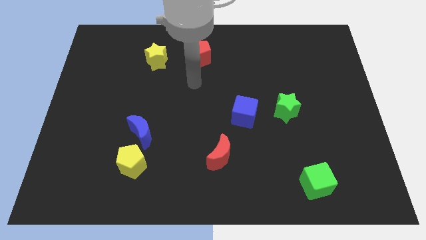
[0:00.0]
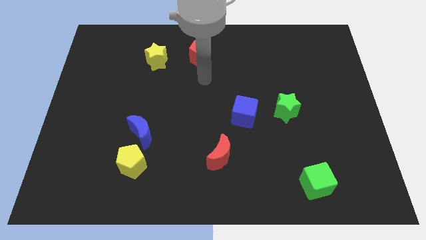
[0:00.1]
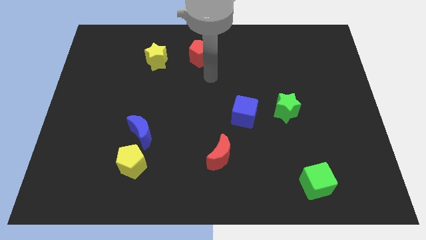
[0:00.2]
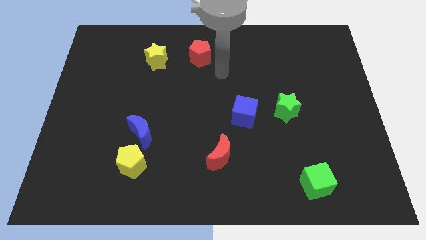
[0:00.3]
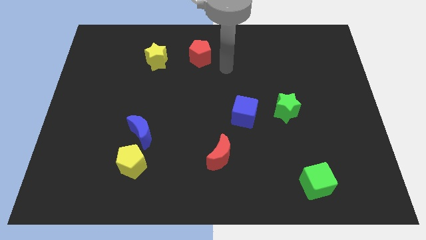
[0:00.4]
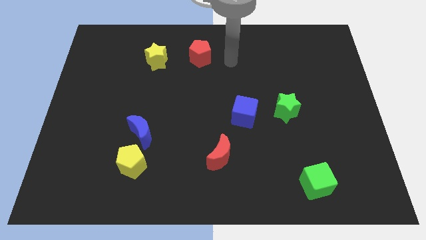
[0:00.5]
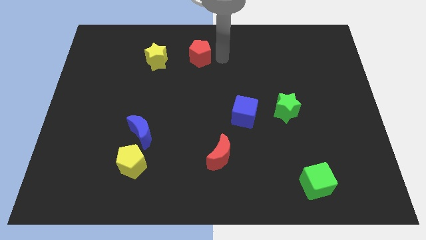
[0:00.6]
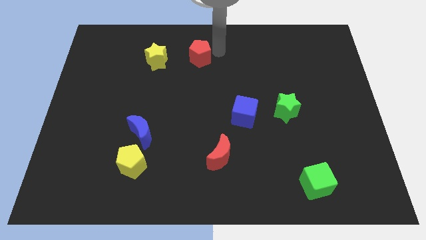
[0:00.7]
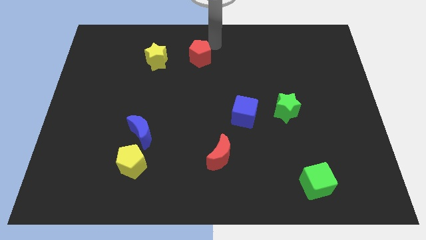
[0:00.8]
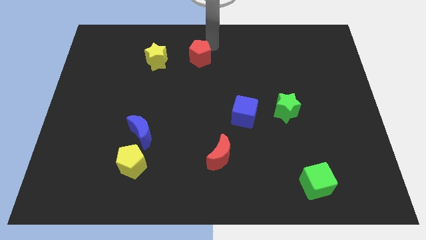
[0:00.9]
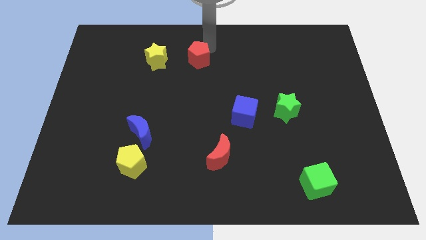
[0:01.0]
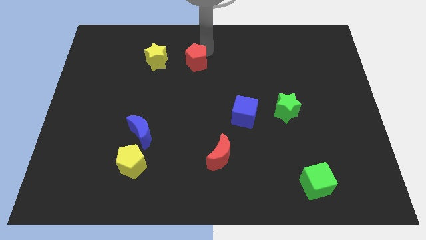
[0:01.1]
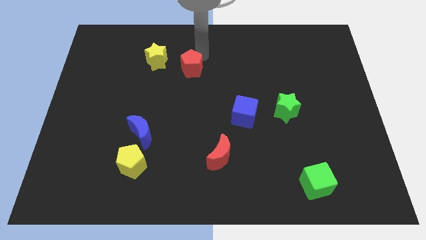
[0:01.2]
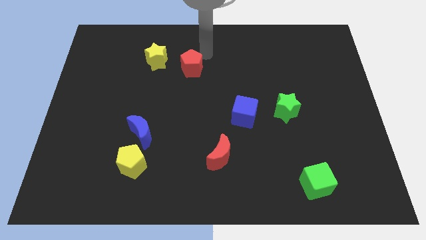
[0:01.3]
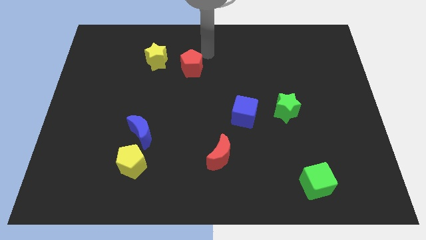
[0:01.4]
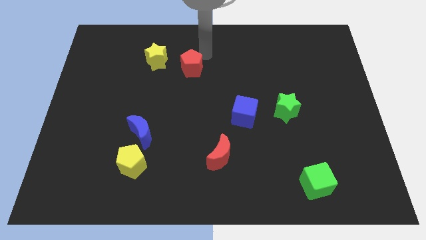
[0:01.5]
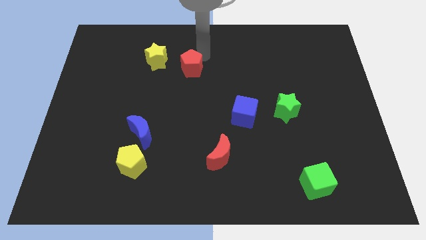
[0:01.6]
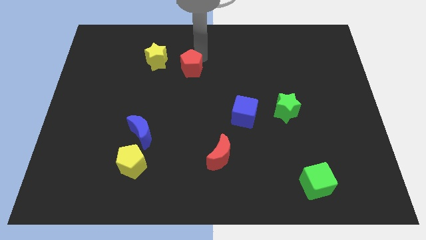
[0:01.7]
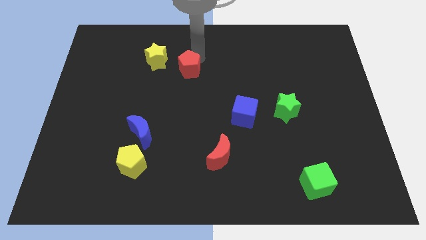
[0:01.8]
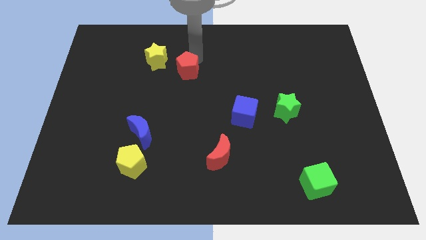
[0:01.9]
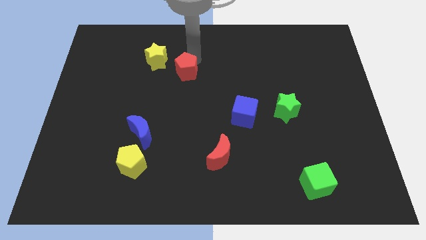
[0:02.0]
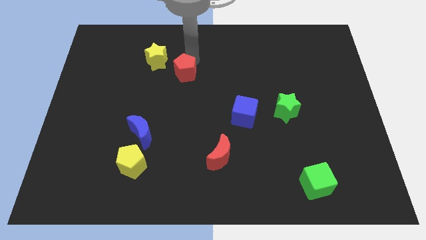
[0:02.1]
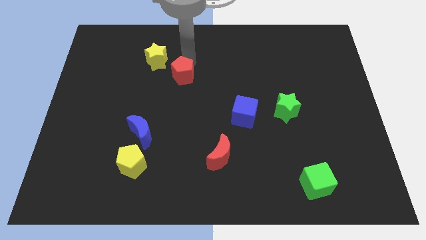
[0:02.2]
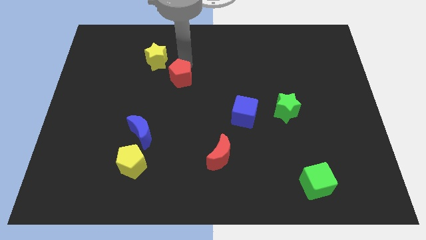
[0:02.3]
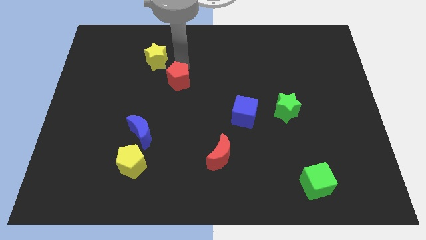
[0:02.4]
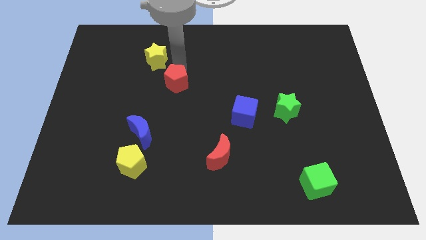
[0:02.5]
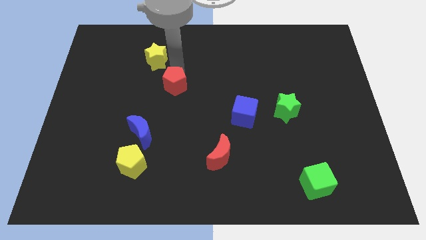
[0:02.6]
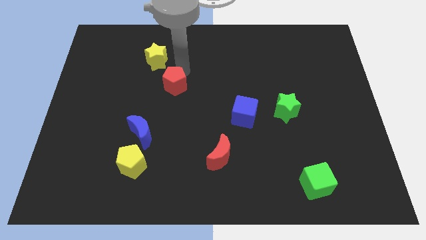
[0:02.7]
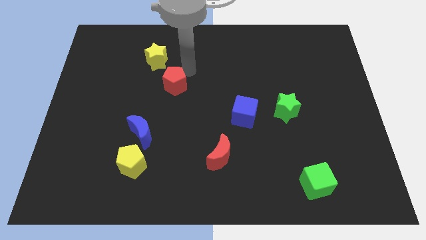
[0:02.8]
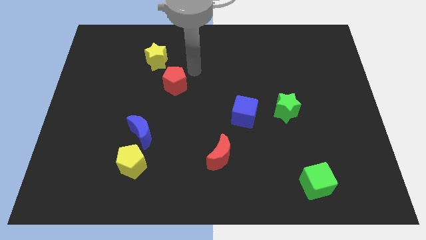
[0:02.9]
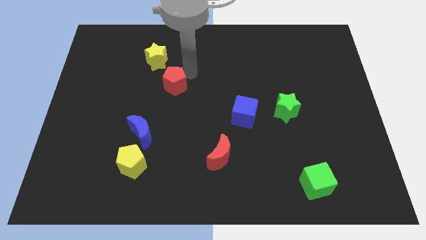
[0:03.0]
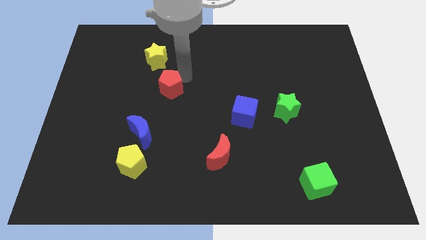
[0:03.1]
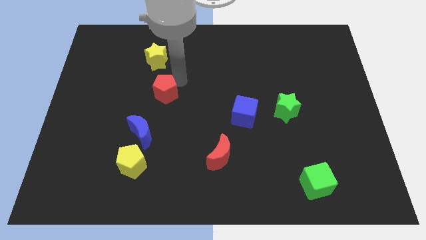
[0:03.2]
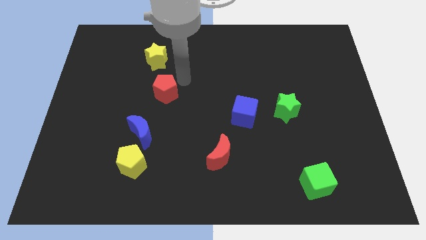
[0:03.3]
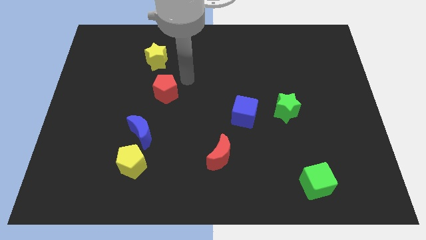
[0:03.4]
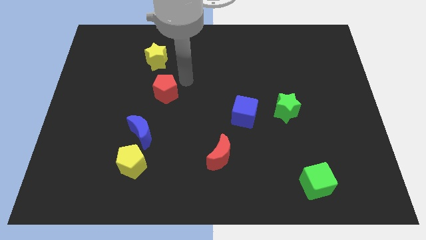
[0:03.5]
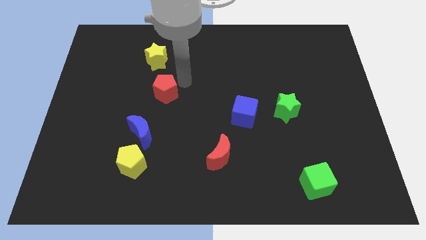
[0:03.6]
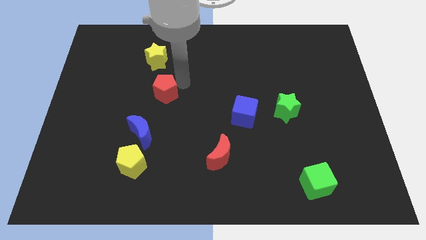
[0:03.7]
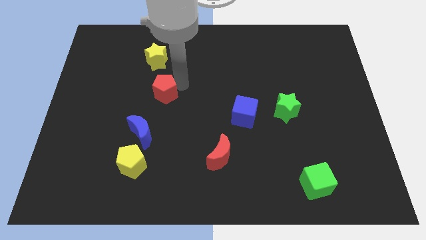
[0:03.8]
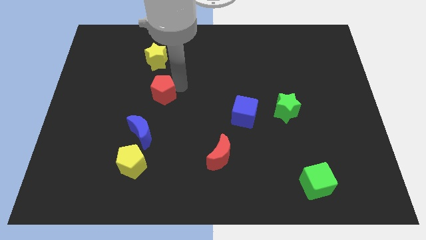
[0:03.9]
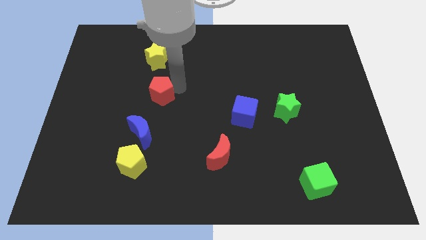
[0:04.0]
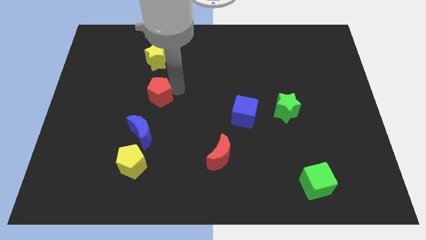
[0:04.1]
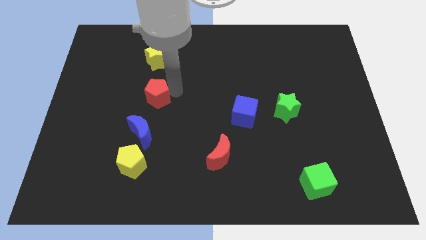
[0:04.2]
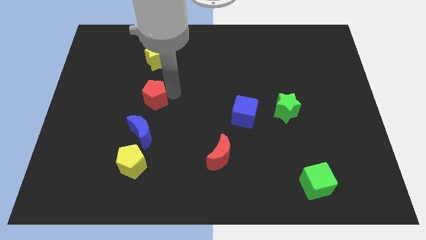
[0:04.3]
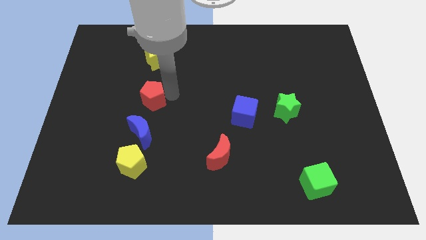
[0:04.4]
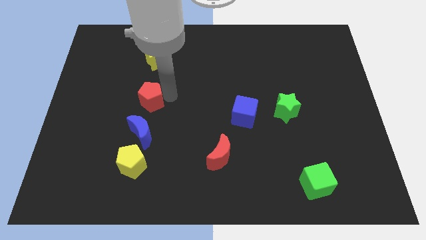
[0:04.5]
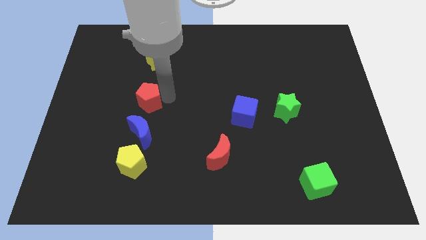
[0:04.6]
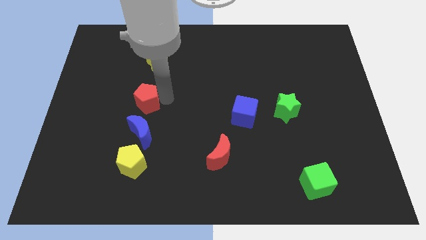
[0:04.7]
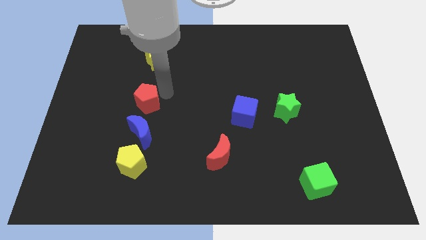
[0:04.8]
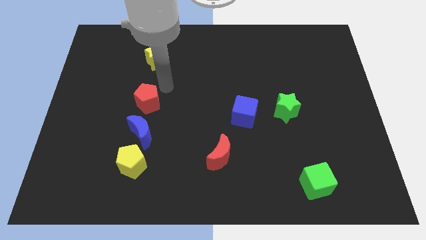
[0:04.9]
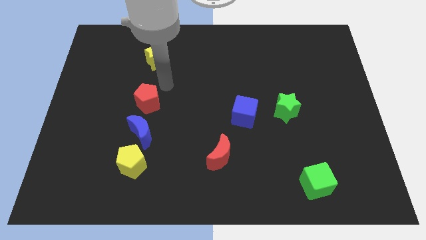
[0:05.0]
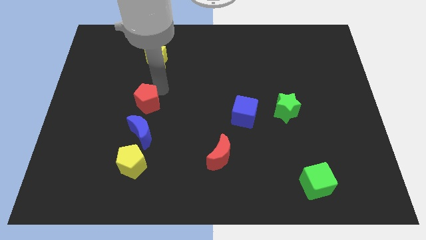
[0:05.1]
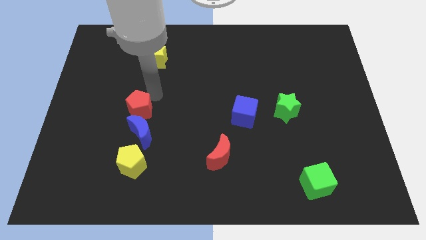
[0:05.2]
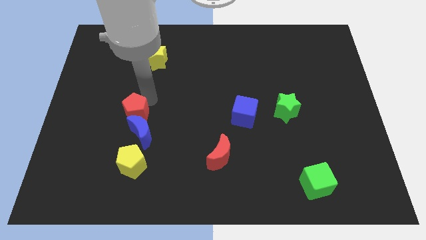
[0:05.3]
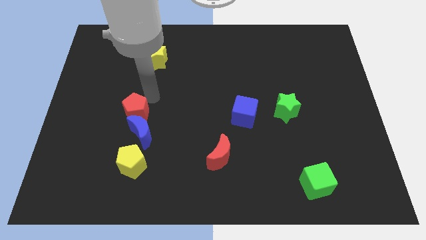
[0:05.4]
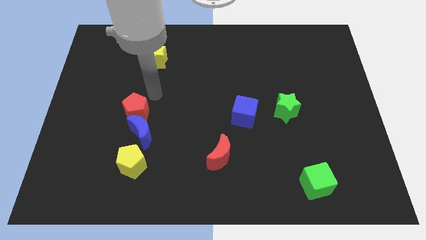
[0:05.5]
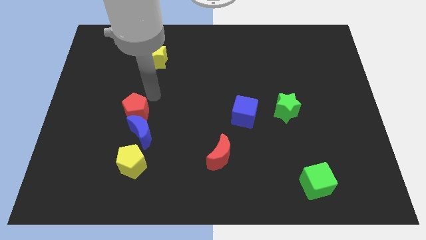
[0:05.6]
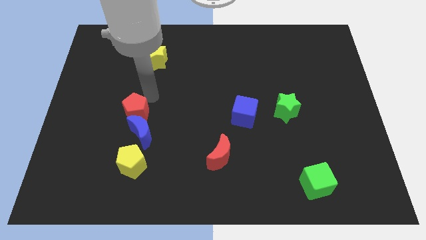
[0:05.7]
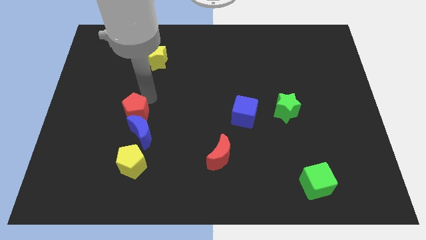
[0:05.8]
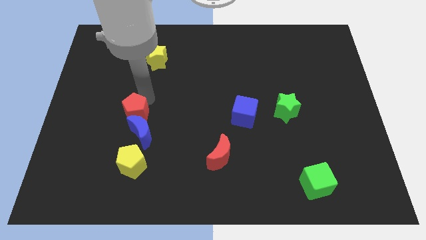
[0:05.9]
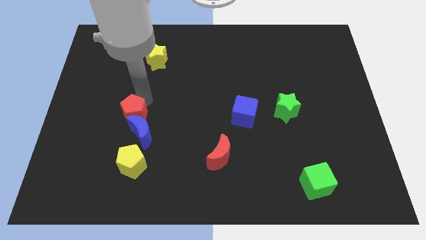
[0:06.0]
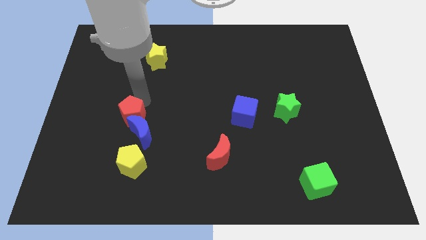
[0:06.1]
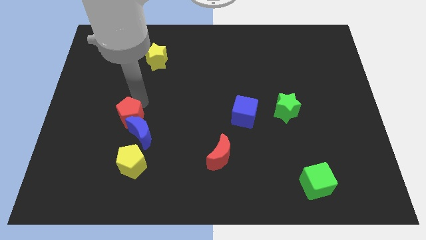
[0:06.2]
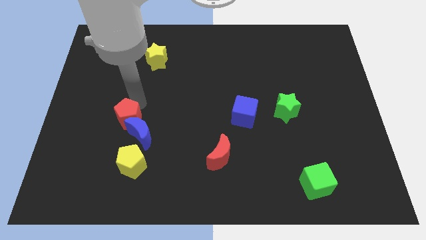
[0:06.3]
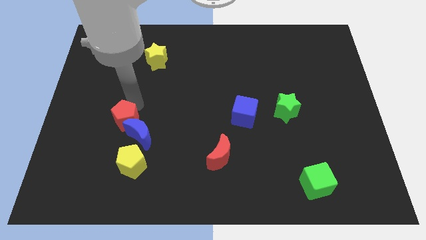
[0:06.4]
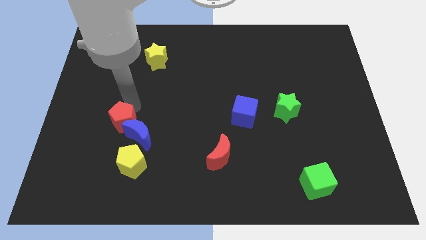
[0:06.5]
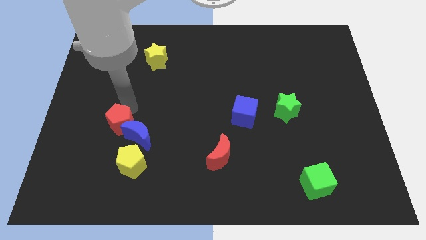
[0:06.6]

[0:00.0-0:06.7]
slide the red pentagon to the top left side of the yellow pentagon

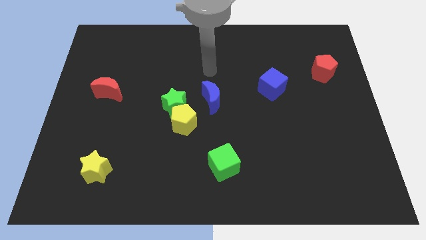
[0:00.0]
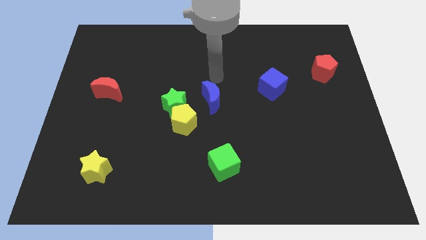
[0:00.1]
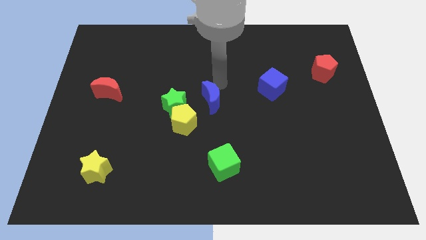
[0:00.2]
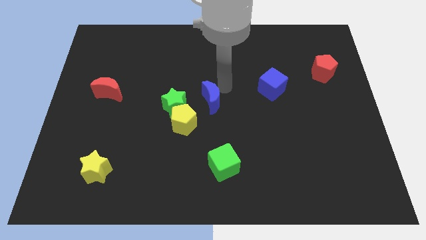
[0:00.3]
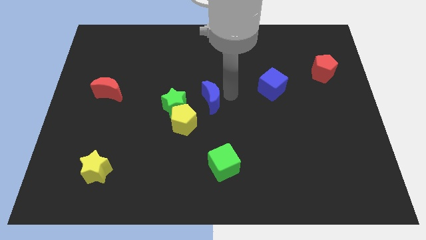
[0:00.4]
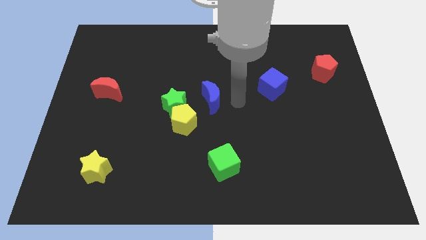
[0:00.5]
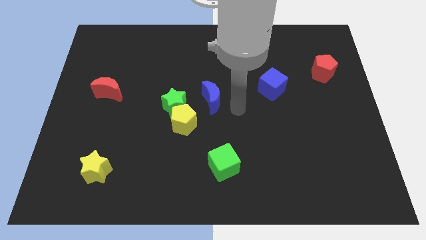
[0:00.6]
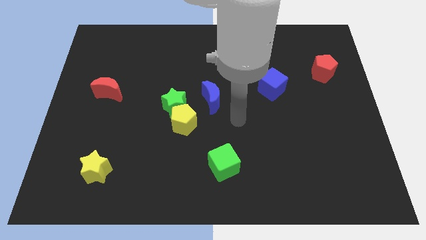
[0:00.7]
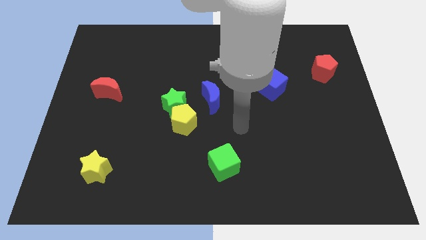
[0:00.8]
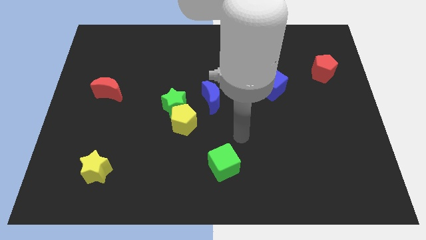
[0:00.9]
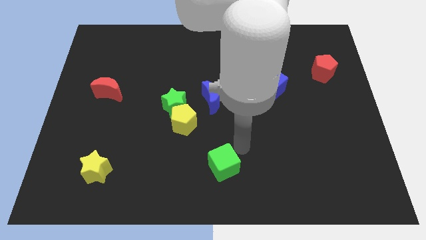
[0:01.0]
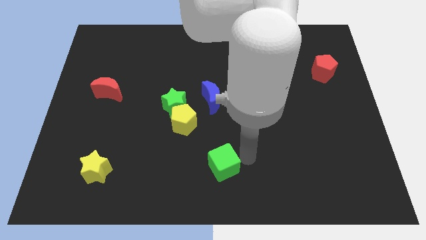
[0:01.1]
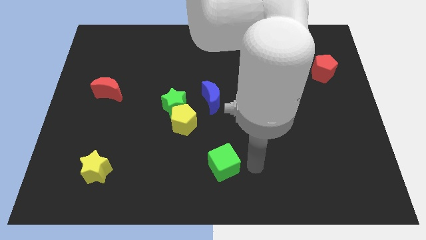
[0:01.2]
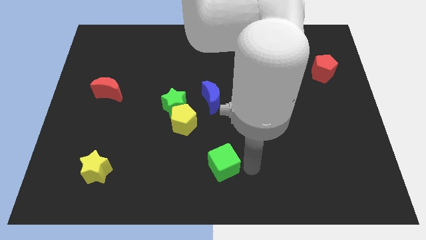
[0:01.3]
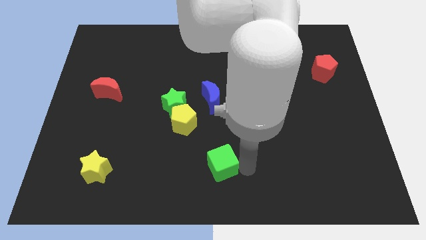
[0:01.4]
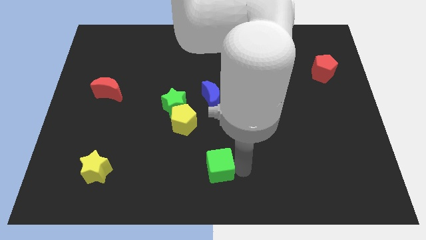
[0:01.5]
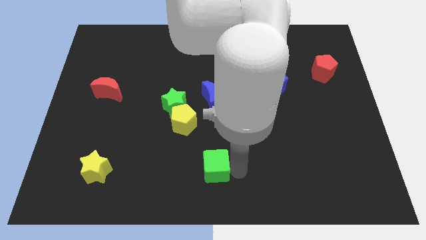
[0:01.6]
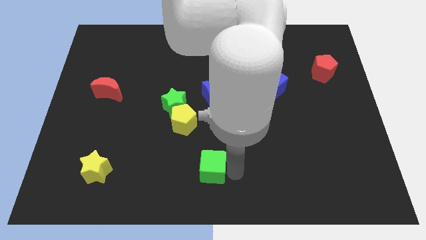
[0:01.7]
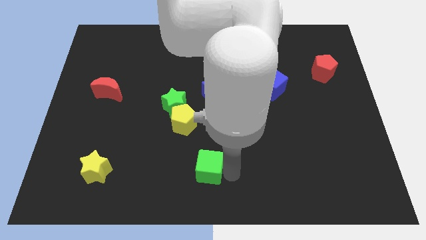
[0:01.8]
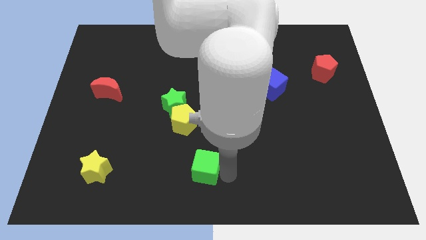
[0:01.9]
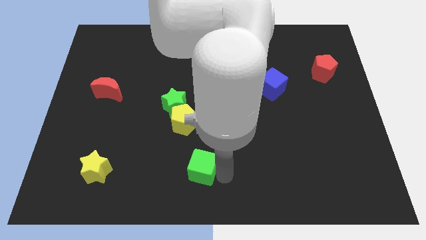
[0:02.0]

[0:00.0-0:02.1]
push the green cube to the bottom of the yellow pentagon
